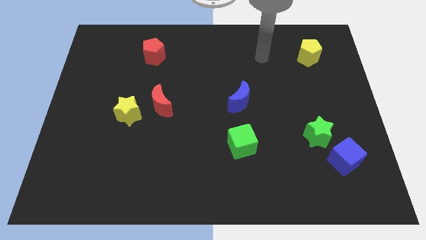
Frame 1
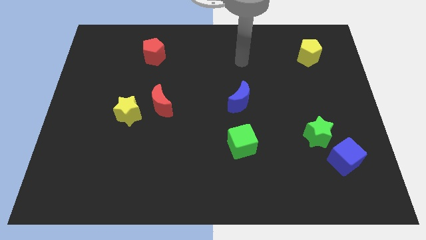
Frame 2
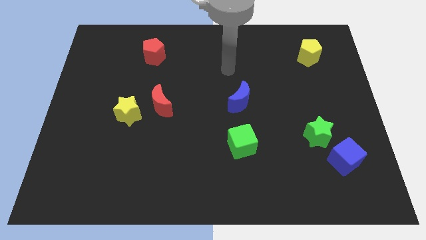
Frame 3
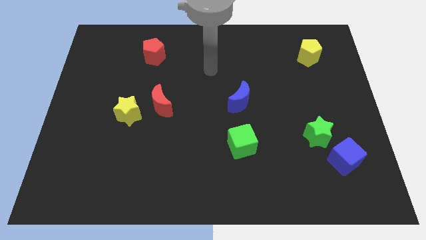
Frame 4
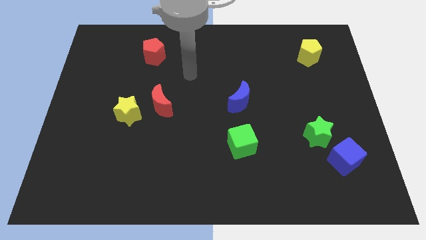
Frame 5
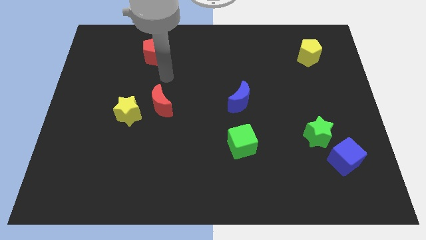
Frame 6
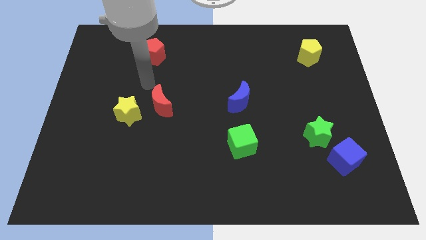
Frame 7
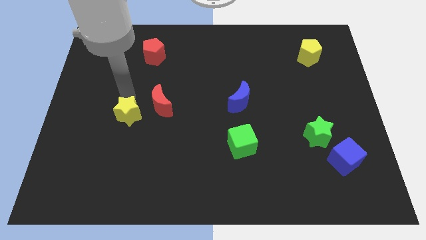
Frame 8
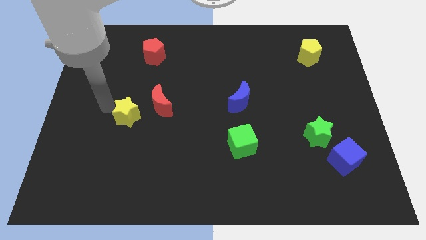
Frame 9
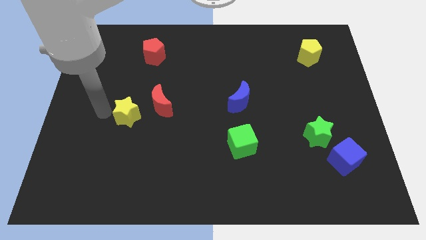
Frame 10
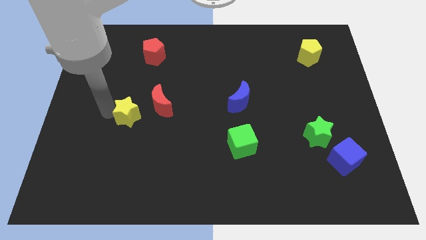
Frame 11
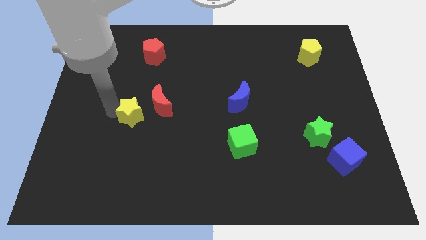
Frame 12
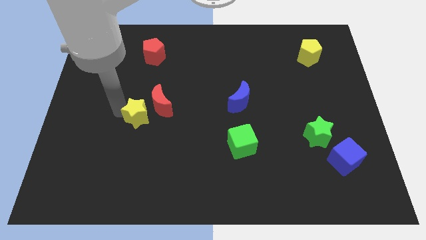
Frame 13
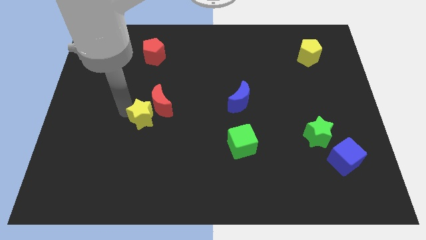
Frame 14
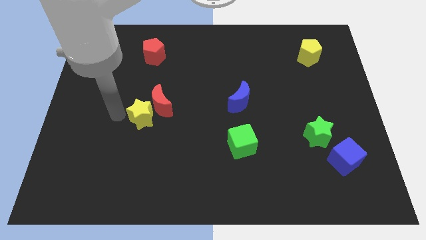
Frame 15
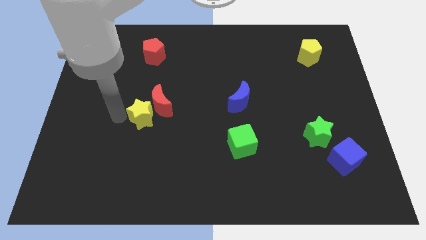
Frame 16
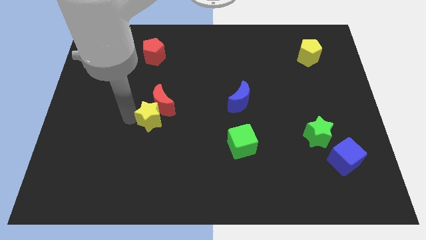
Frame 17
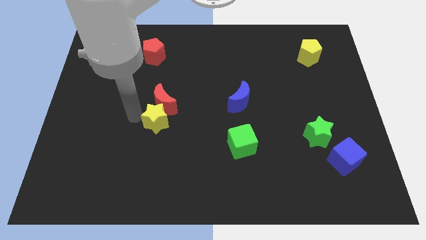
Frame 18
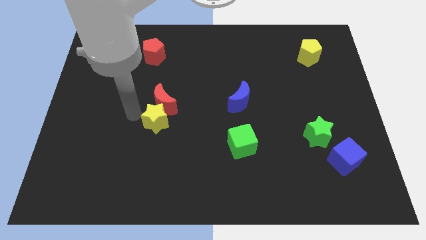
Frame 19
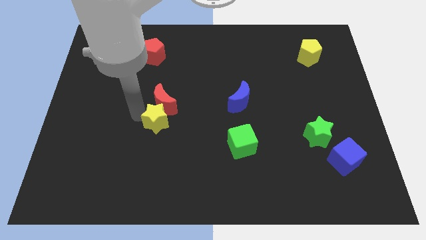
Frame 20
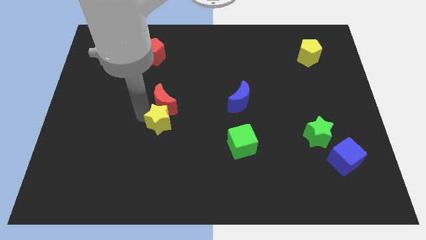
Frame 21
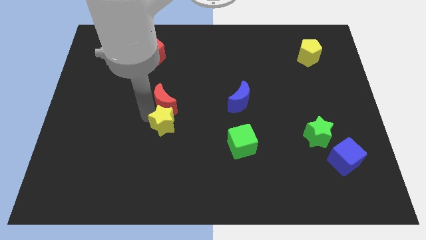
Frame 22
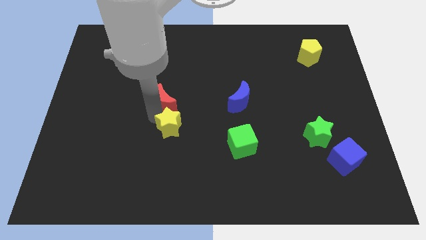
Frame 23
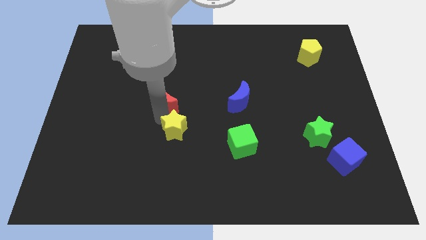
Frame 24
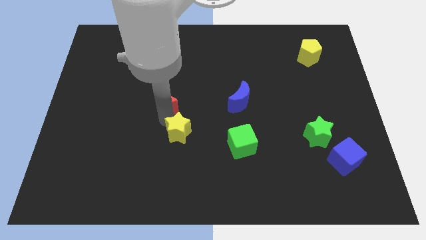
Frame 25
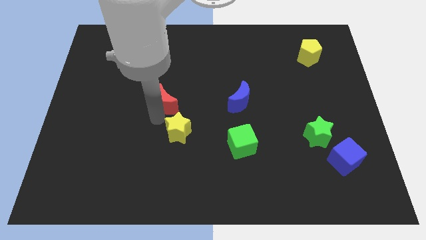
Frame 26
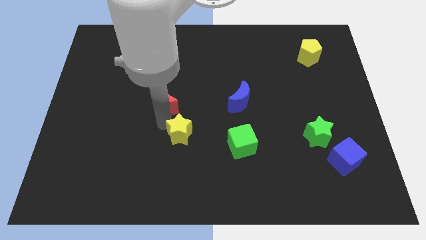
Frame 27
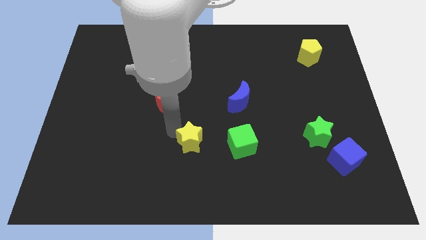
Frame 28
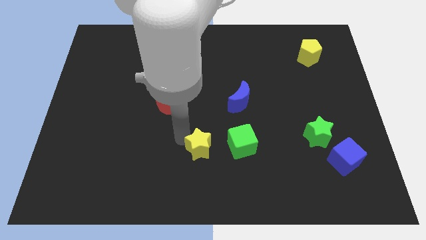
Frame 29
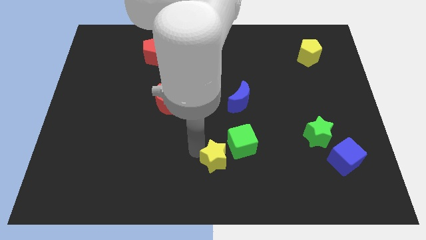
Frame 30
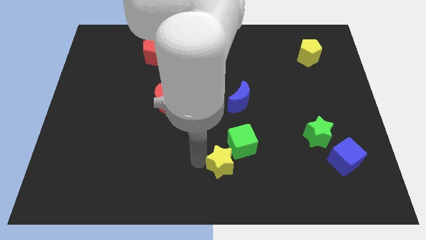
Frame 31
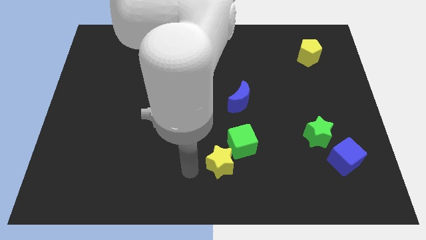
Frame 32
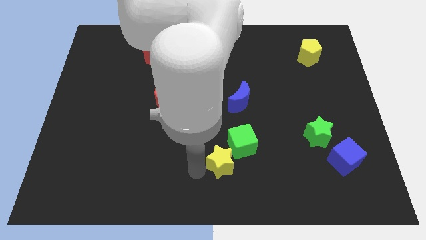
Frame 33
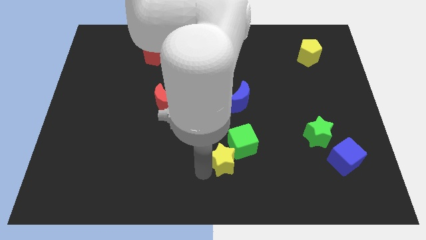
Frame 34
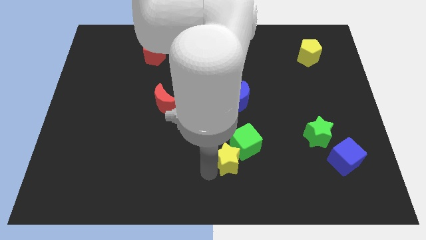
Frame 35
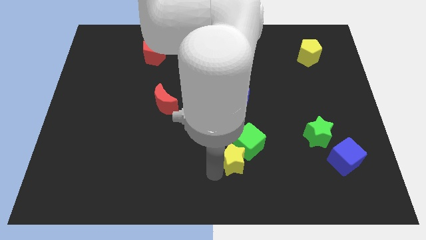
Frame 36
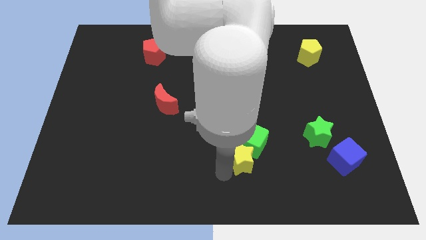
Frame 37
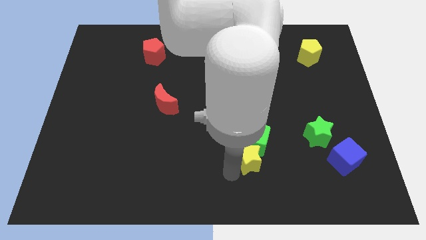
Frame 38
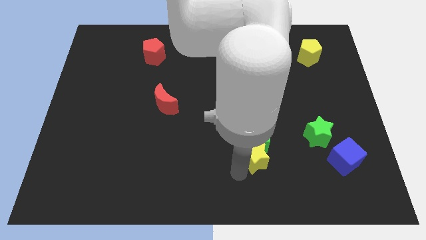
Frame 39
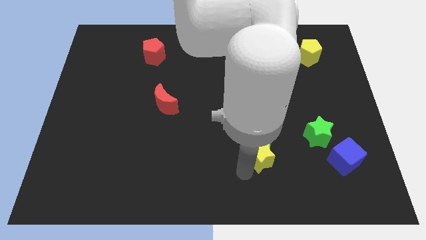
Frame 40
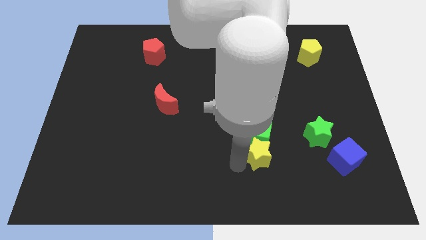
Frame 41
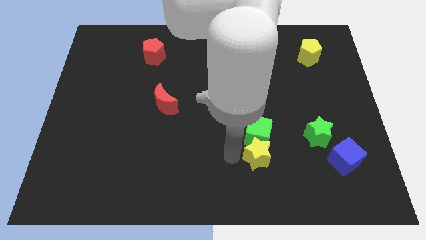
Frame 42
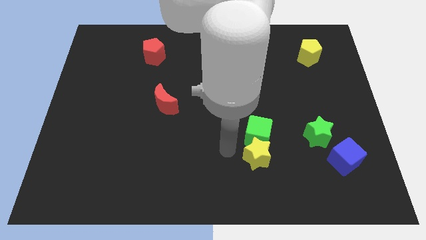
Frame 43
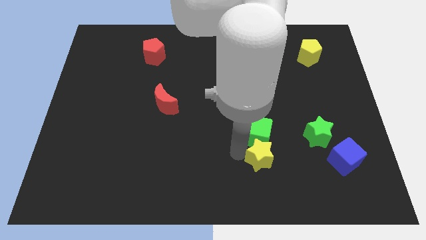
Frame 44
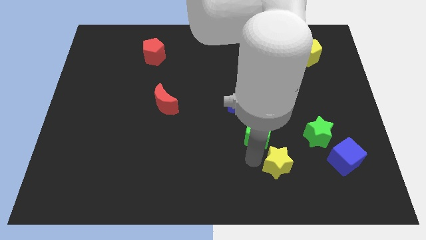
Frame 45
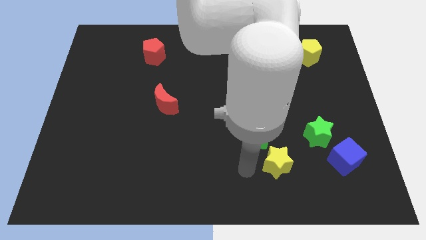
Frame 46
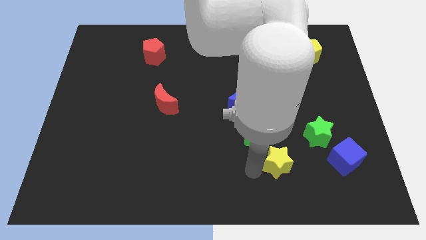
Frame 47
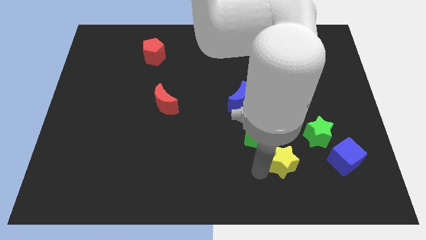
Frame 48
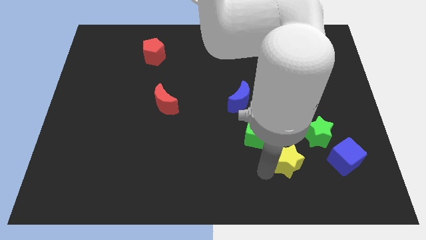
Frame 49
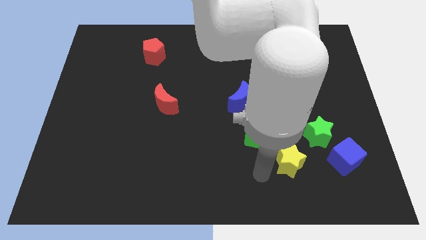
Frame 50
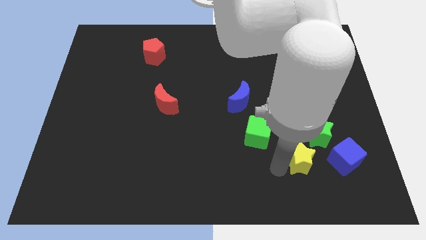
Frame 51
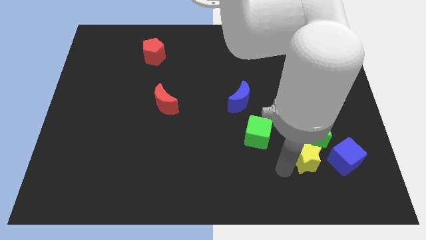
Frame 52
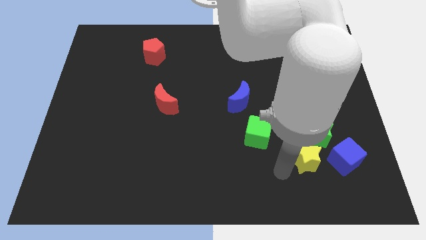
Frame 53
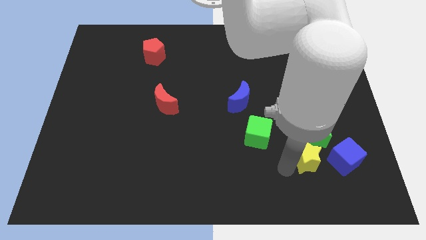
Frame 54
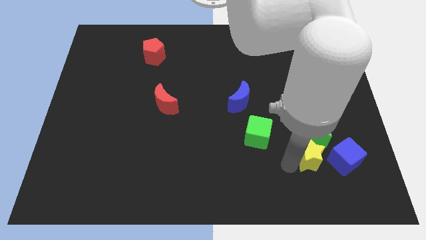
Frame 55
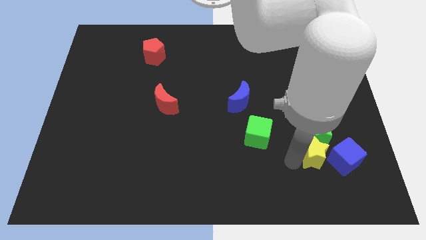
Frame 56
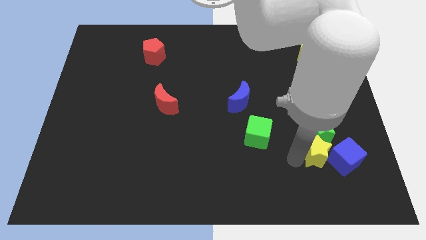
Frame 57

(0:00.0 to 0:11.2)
push the yellow star next to the blue cube

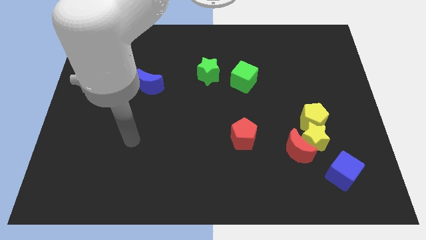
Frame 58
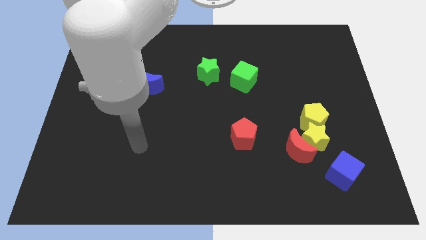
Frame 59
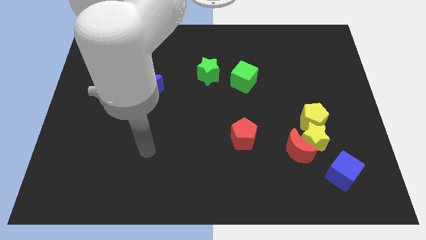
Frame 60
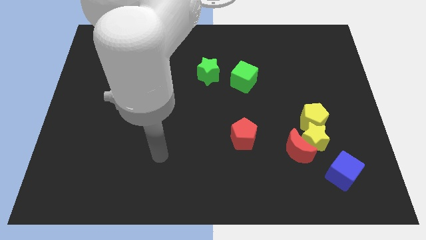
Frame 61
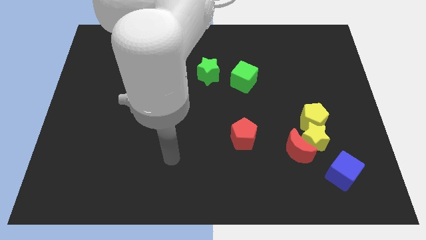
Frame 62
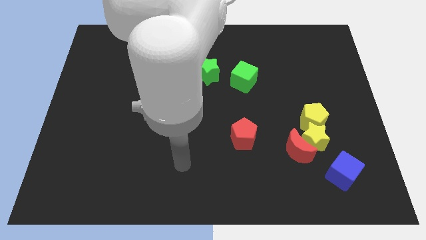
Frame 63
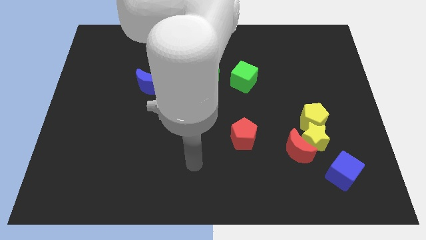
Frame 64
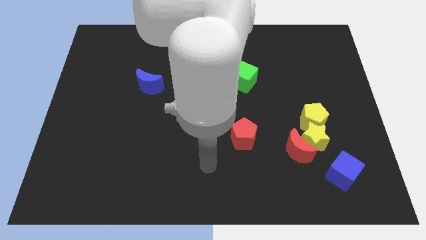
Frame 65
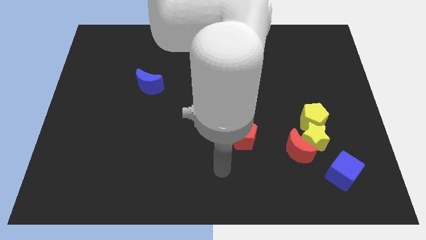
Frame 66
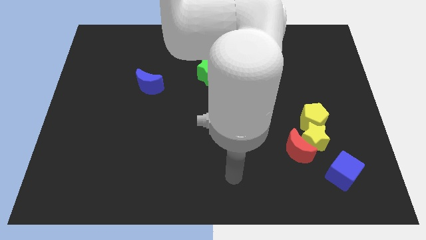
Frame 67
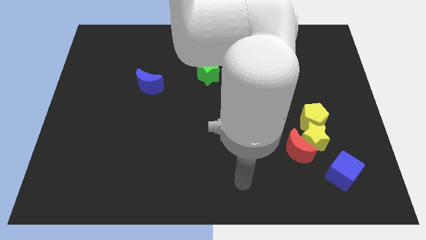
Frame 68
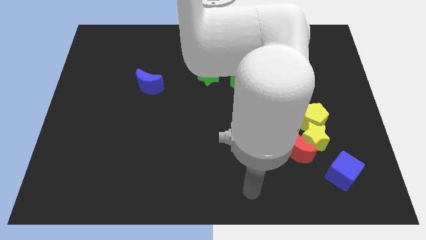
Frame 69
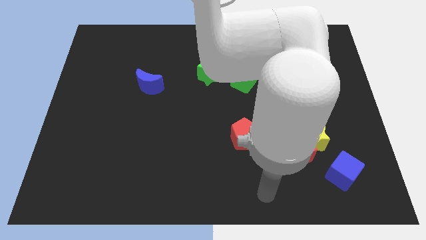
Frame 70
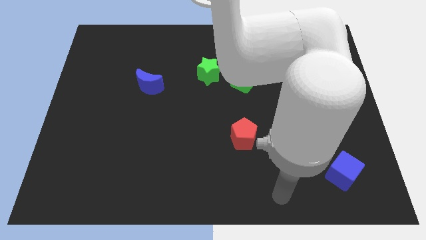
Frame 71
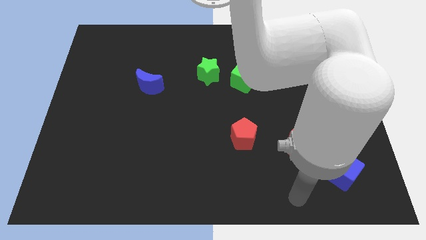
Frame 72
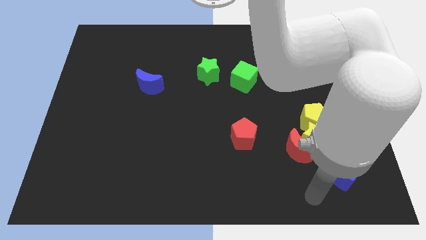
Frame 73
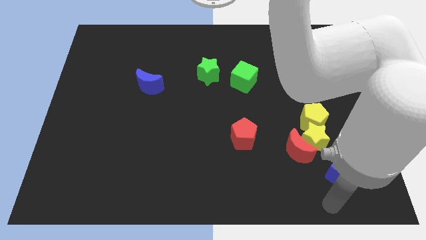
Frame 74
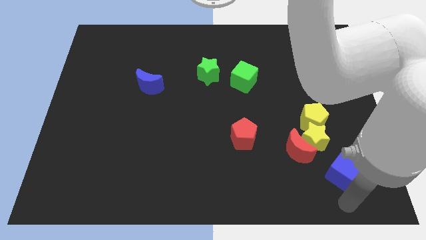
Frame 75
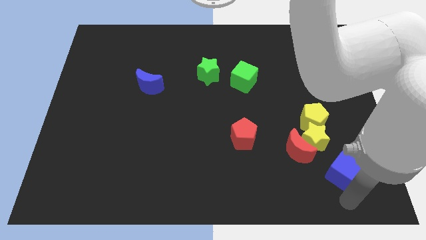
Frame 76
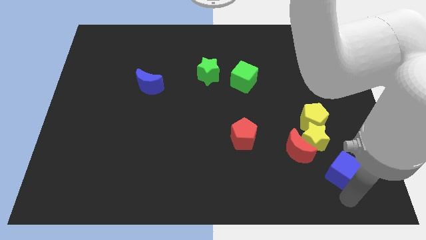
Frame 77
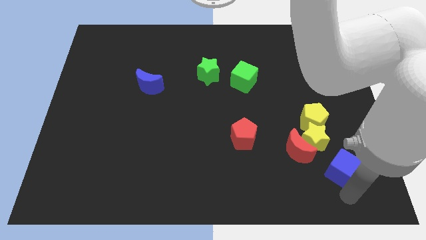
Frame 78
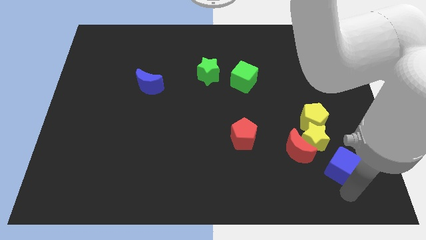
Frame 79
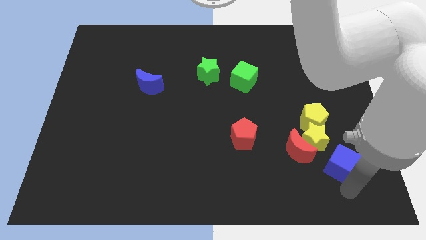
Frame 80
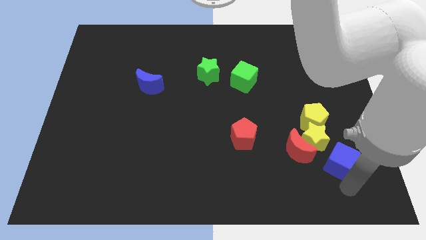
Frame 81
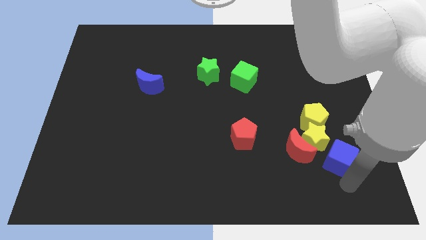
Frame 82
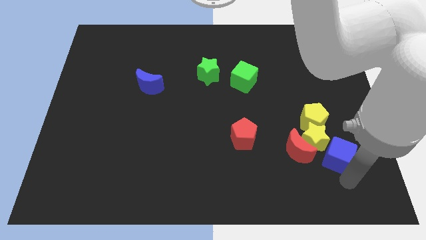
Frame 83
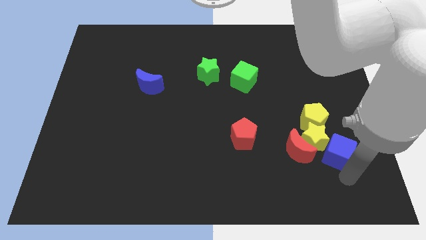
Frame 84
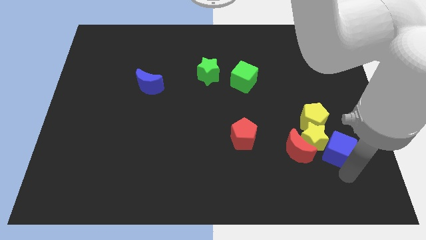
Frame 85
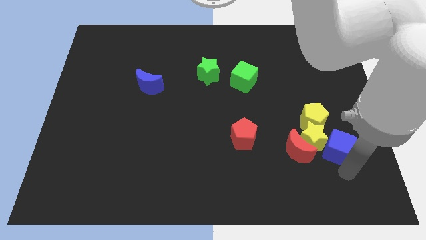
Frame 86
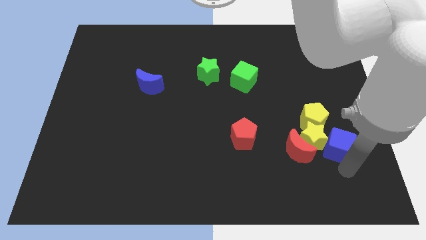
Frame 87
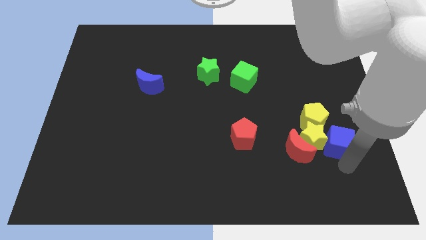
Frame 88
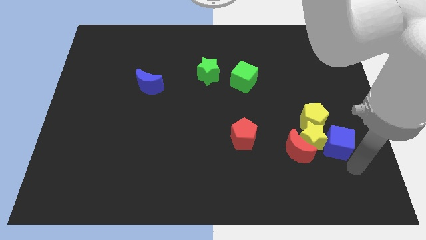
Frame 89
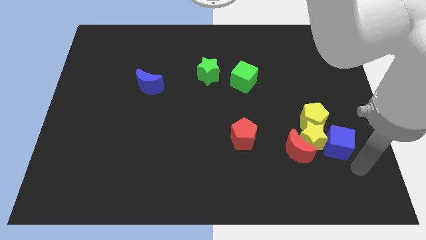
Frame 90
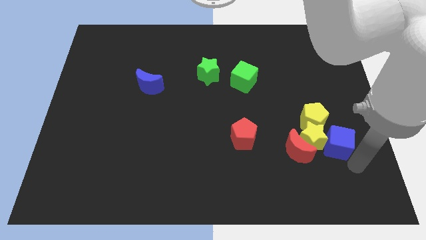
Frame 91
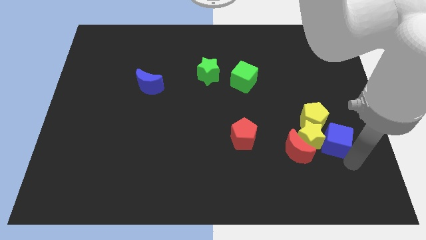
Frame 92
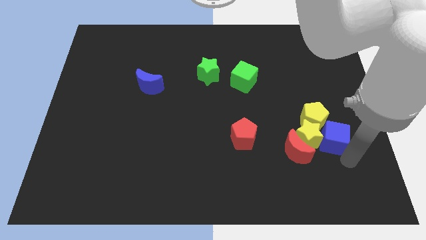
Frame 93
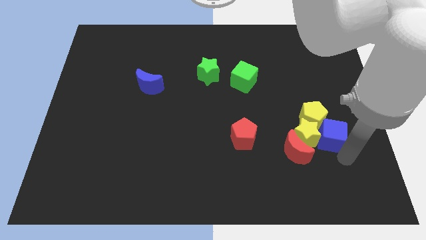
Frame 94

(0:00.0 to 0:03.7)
push the blue cube close to the yellow pentagon
